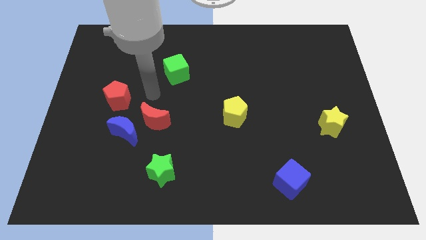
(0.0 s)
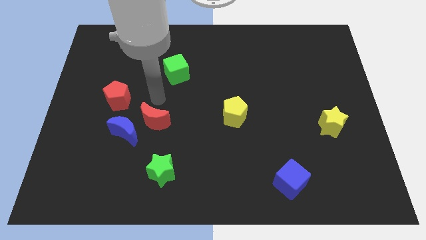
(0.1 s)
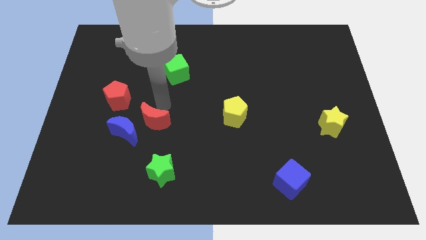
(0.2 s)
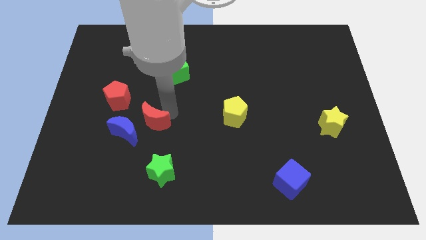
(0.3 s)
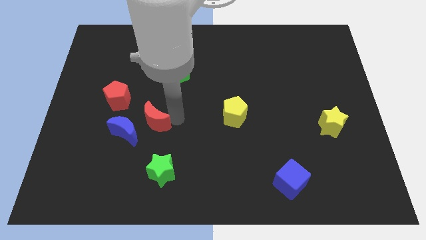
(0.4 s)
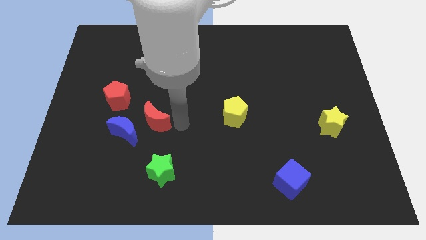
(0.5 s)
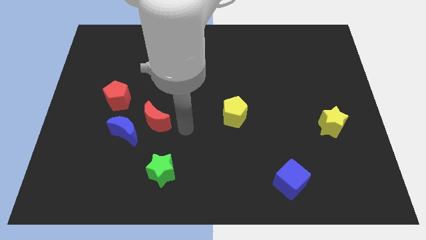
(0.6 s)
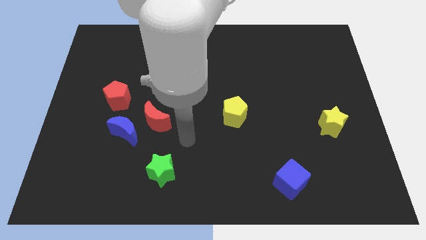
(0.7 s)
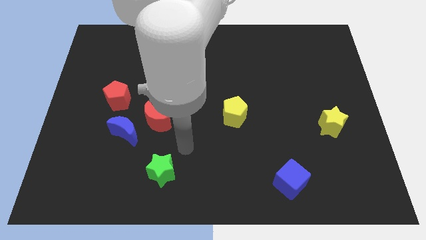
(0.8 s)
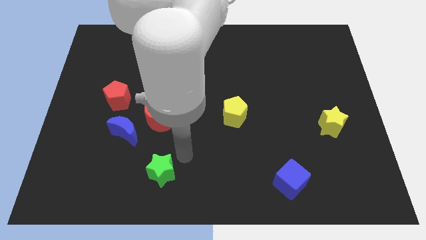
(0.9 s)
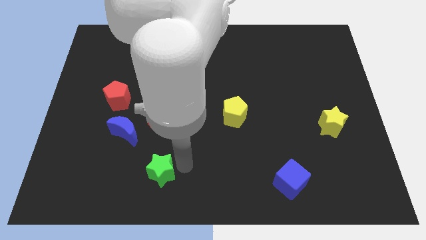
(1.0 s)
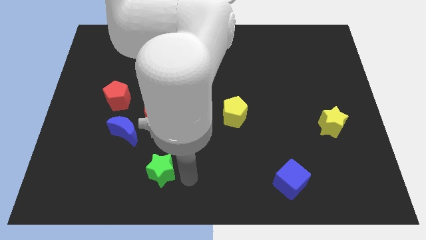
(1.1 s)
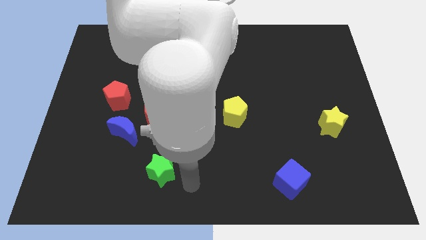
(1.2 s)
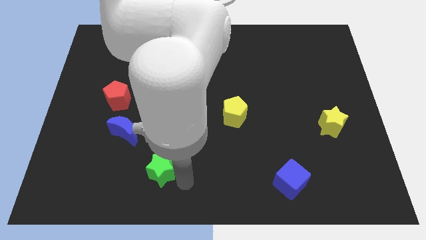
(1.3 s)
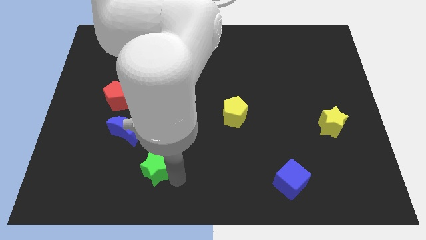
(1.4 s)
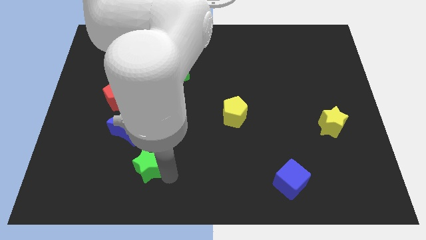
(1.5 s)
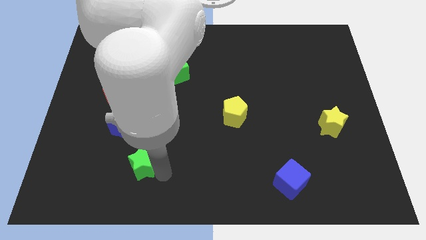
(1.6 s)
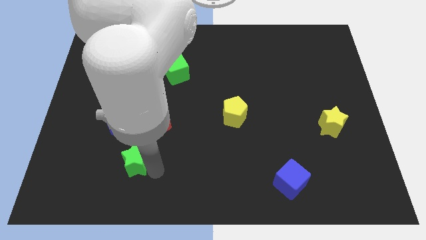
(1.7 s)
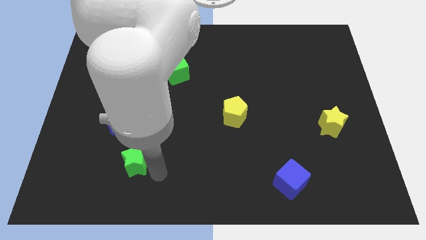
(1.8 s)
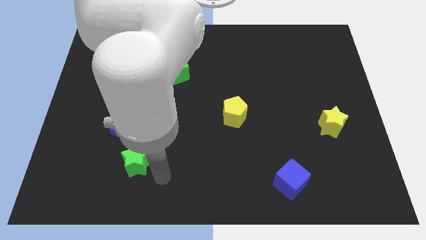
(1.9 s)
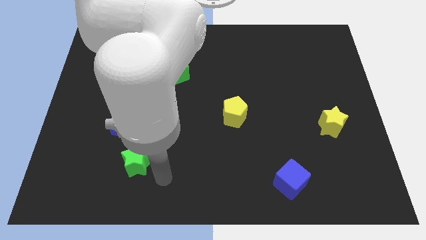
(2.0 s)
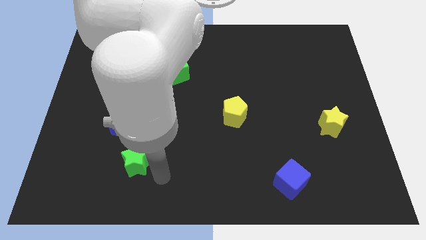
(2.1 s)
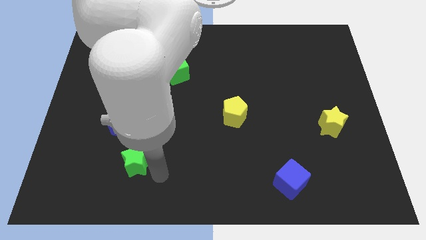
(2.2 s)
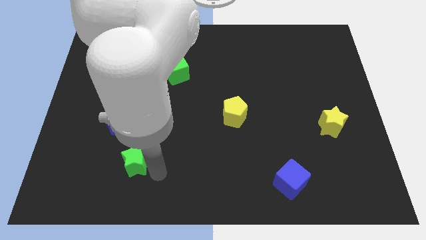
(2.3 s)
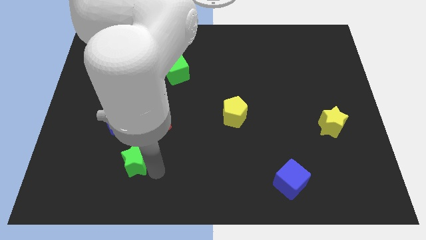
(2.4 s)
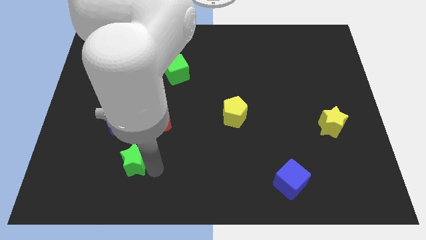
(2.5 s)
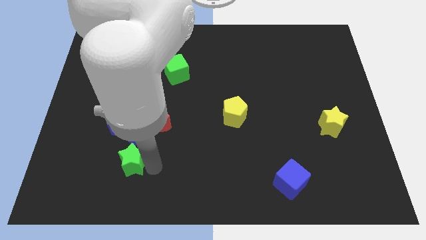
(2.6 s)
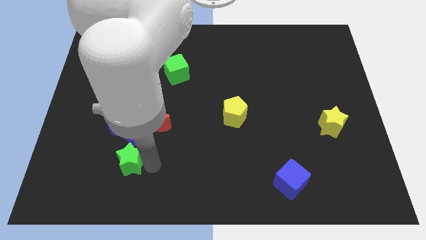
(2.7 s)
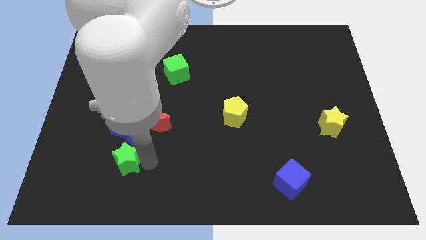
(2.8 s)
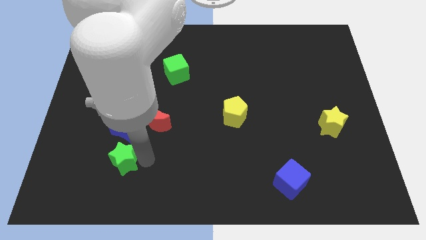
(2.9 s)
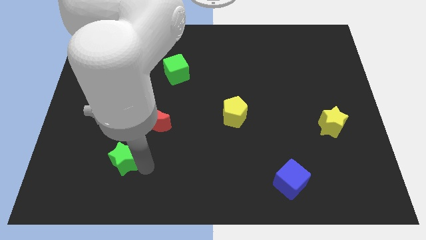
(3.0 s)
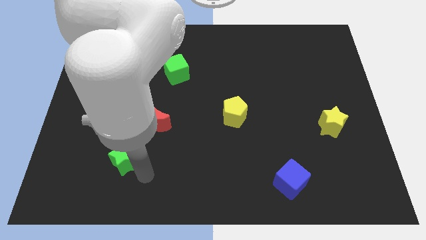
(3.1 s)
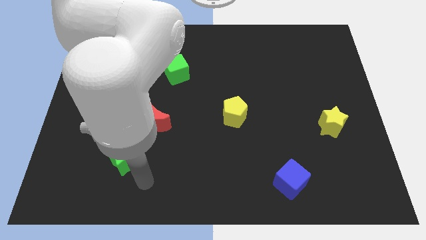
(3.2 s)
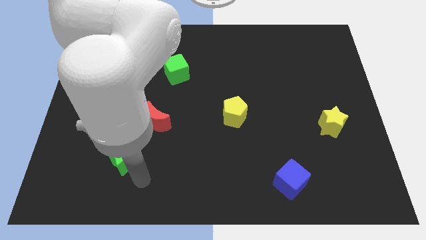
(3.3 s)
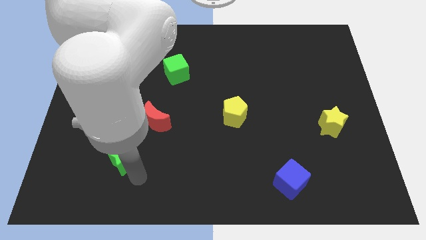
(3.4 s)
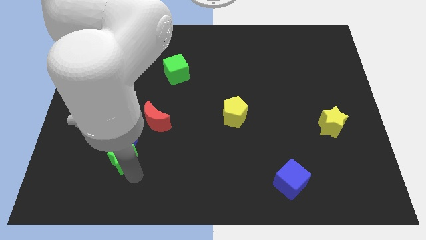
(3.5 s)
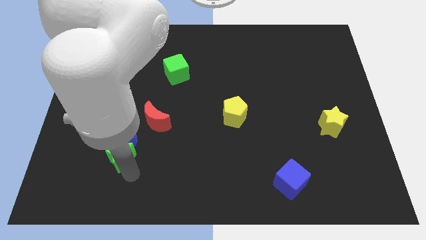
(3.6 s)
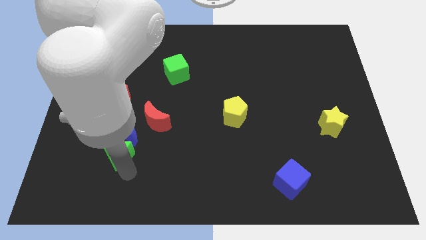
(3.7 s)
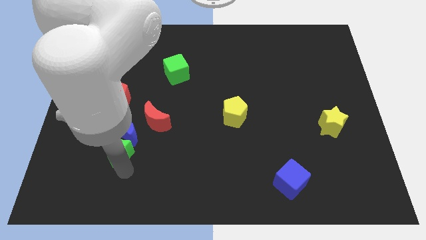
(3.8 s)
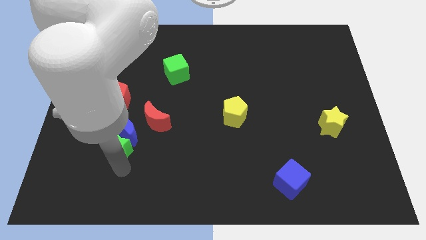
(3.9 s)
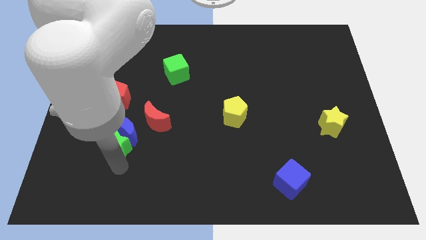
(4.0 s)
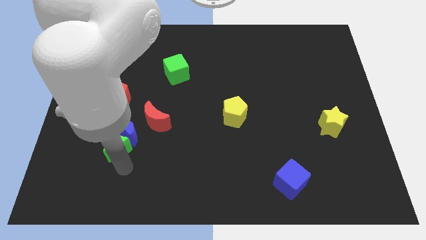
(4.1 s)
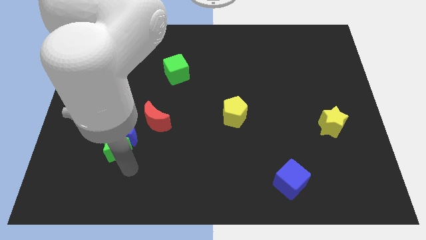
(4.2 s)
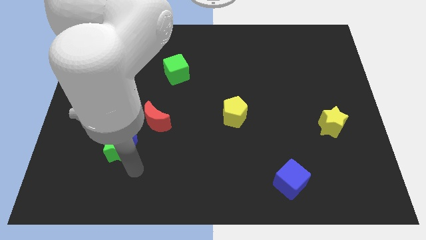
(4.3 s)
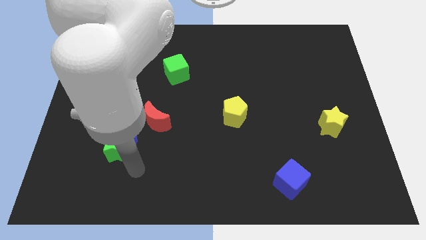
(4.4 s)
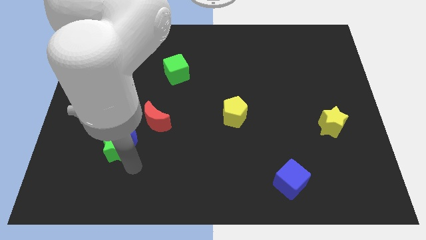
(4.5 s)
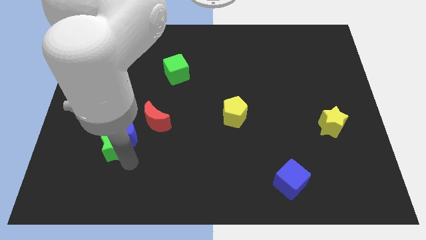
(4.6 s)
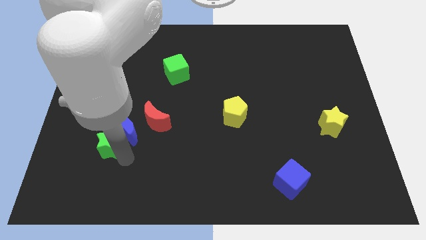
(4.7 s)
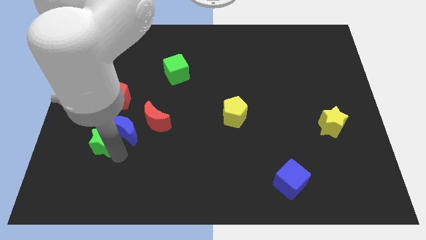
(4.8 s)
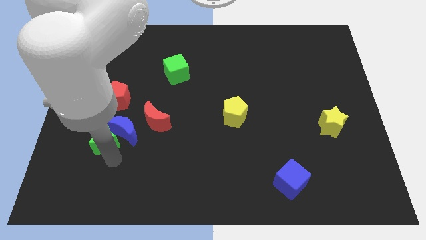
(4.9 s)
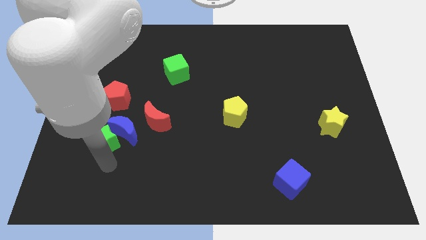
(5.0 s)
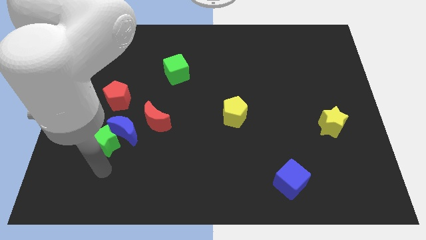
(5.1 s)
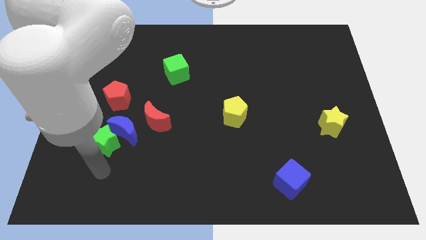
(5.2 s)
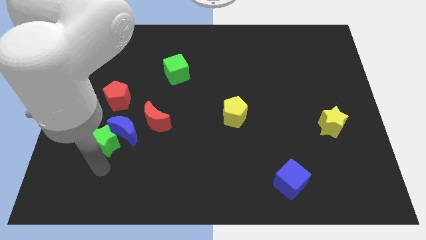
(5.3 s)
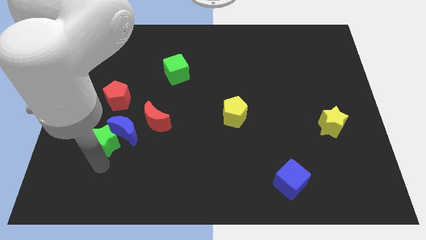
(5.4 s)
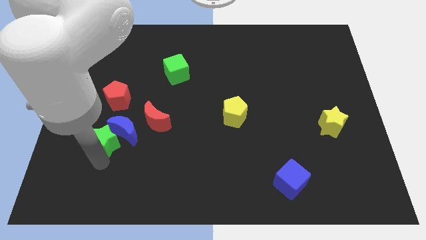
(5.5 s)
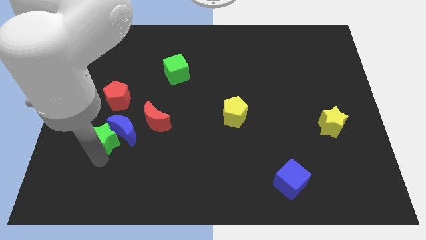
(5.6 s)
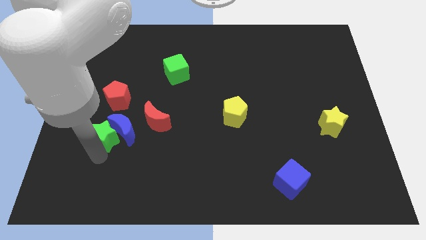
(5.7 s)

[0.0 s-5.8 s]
slide the green star just left of the red moon
